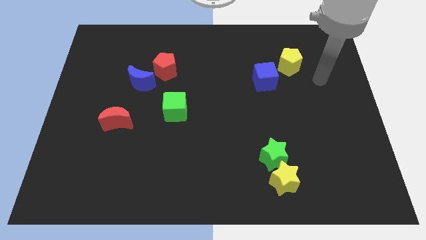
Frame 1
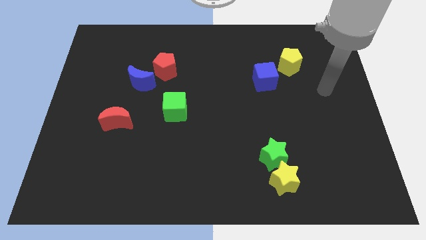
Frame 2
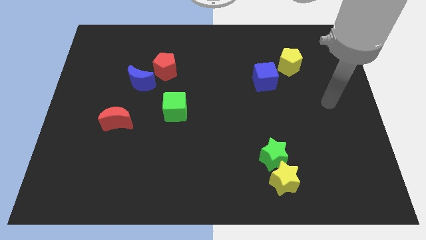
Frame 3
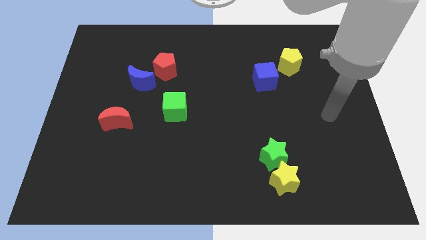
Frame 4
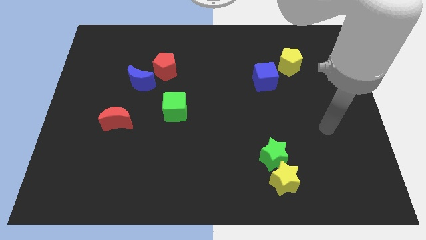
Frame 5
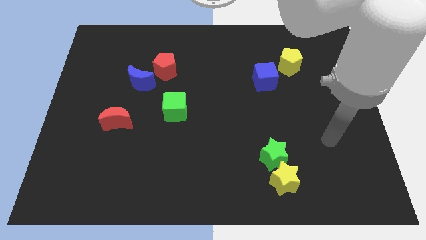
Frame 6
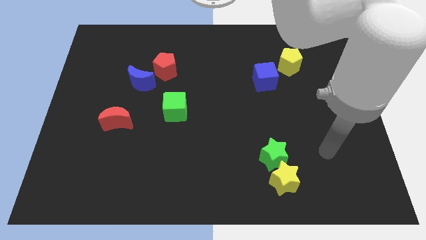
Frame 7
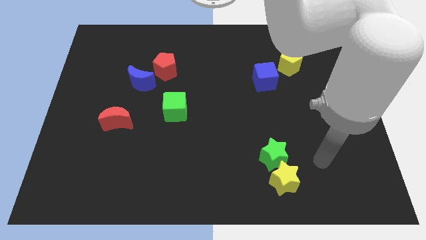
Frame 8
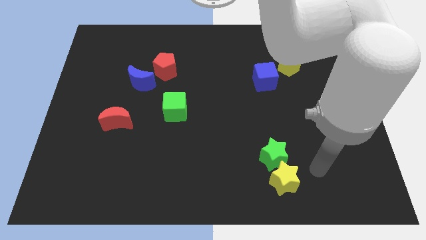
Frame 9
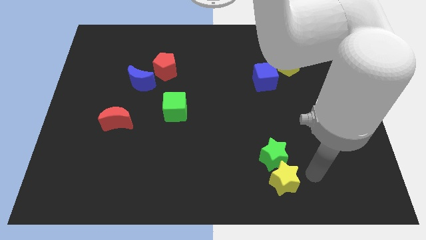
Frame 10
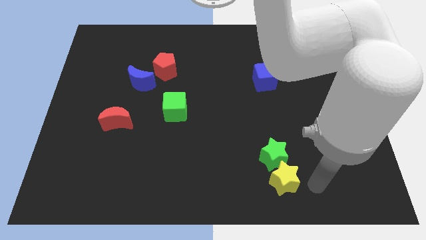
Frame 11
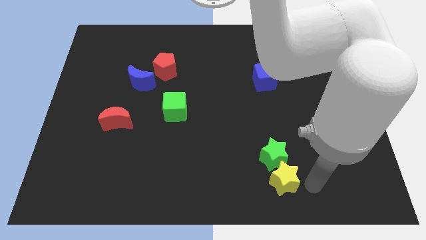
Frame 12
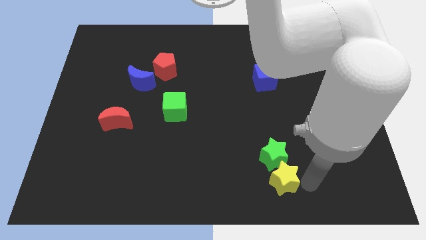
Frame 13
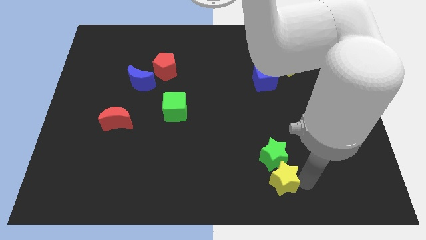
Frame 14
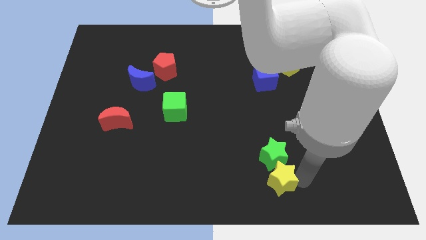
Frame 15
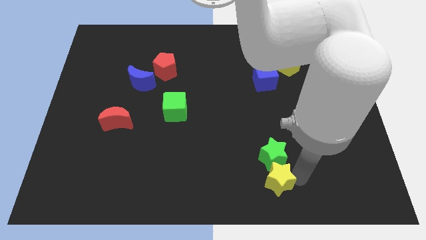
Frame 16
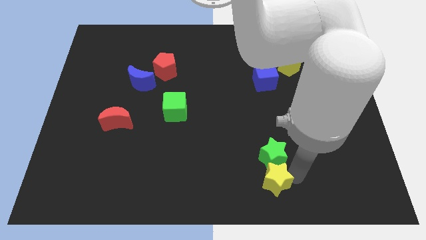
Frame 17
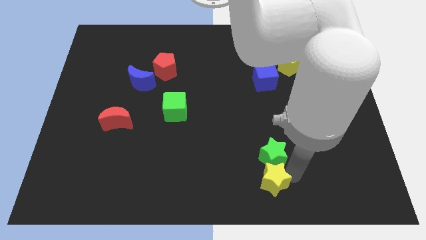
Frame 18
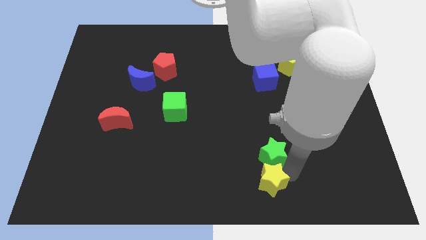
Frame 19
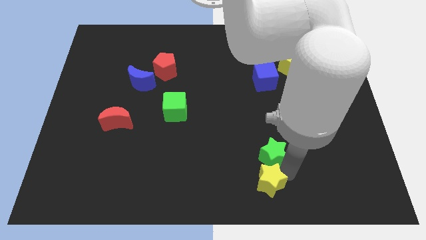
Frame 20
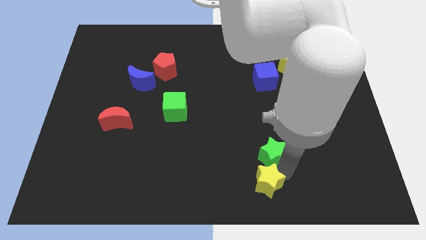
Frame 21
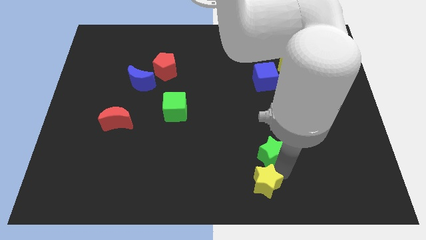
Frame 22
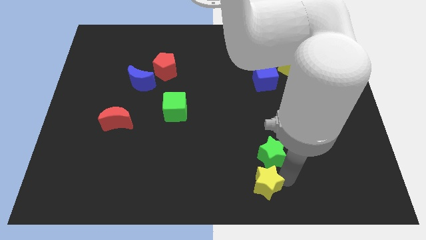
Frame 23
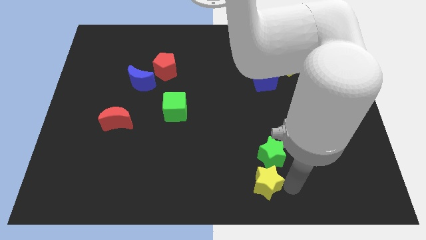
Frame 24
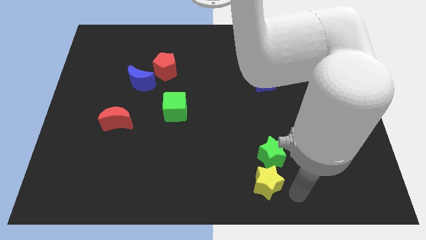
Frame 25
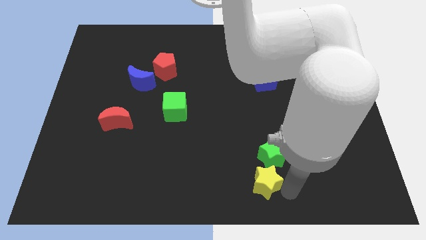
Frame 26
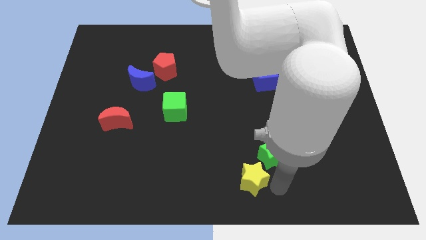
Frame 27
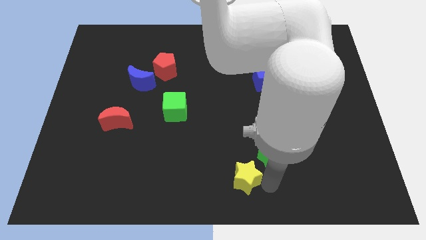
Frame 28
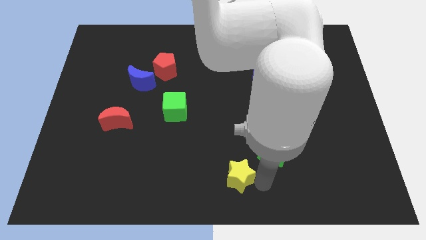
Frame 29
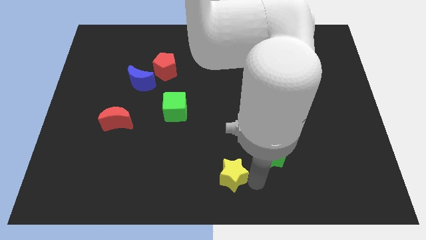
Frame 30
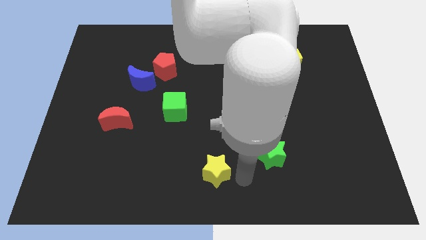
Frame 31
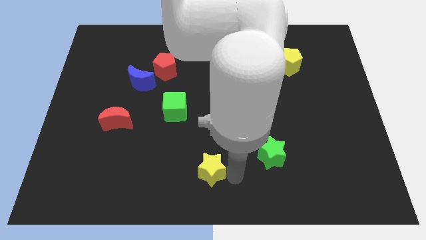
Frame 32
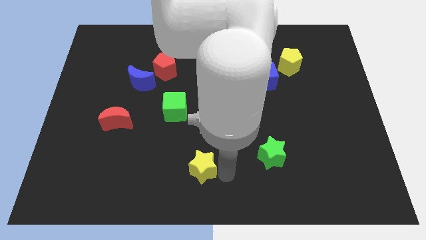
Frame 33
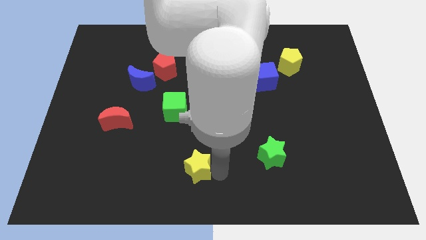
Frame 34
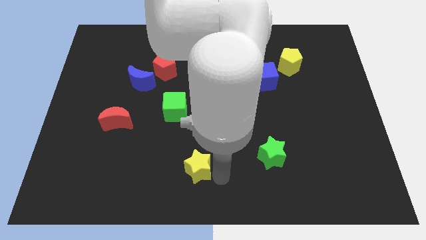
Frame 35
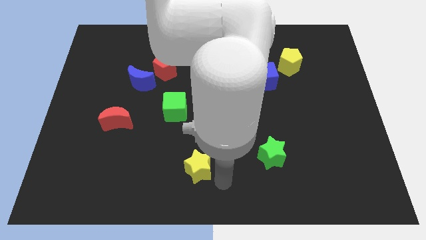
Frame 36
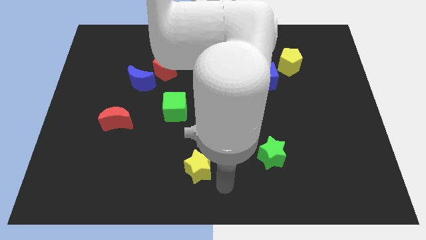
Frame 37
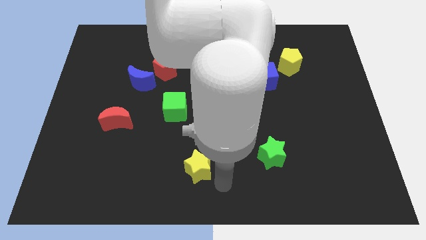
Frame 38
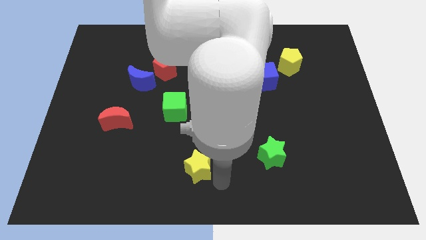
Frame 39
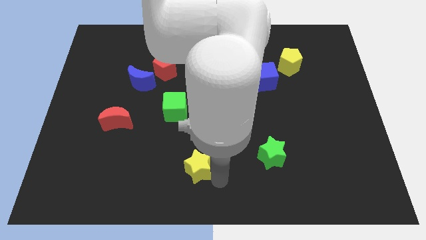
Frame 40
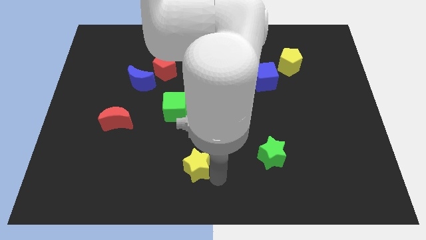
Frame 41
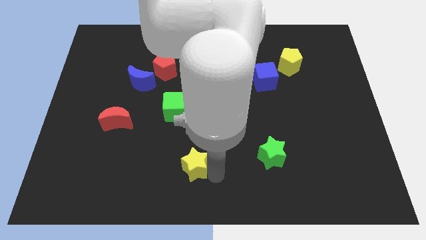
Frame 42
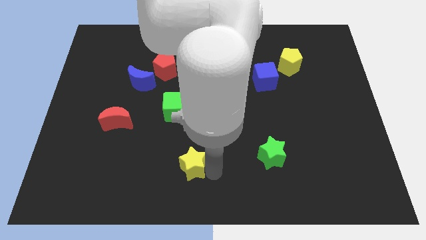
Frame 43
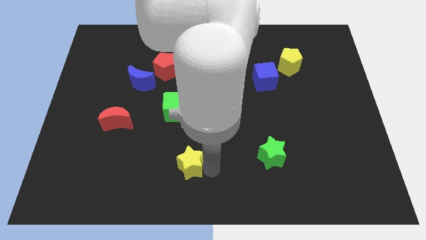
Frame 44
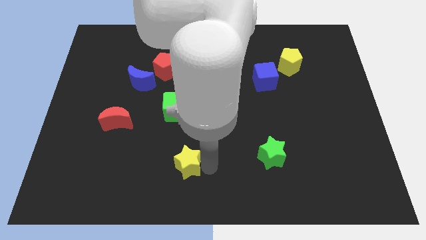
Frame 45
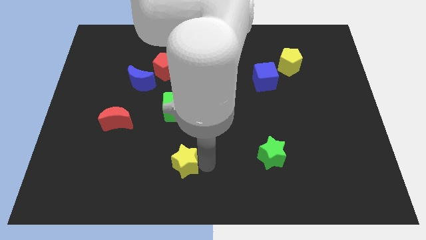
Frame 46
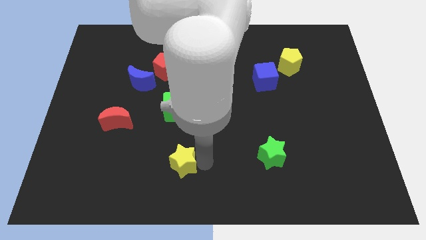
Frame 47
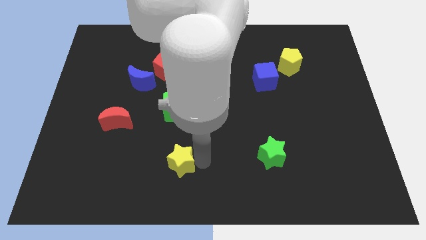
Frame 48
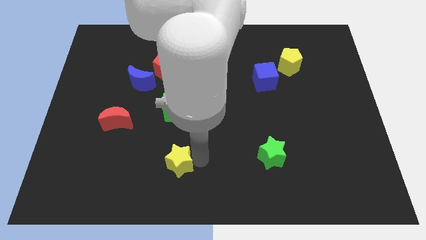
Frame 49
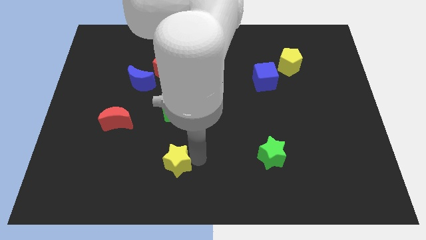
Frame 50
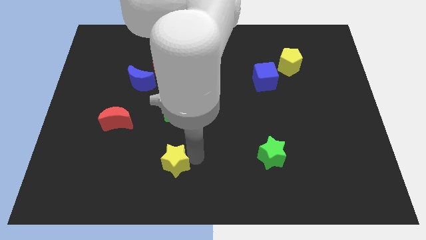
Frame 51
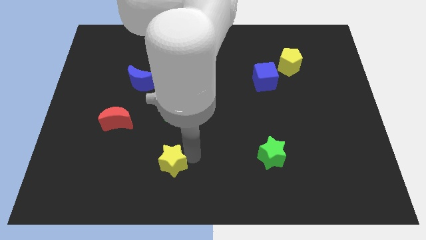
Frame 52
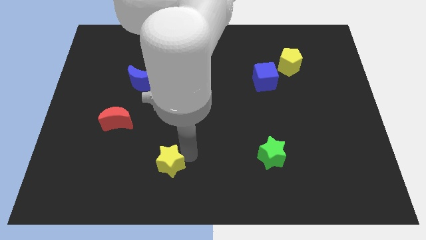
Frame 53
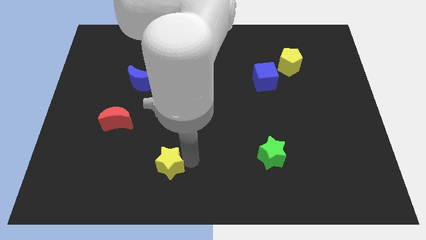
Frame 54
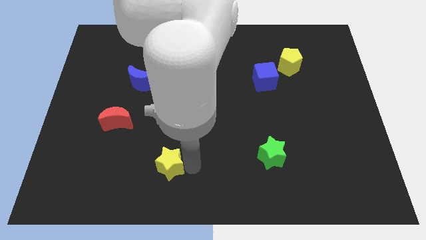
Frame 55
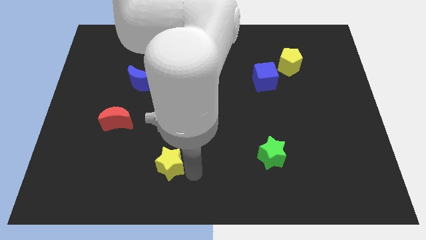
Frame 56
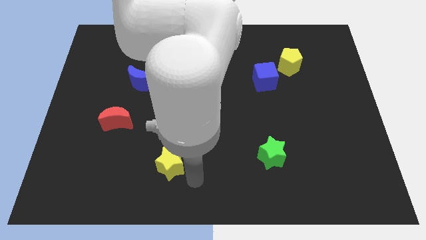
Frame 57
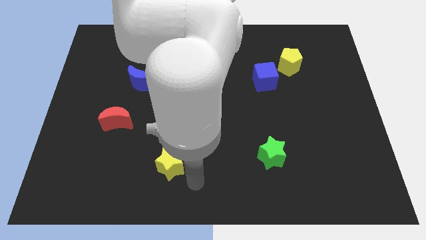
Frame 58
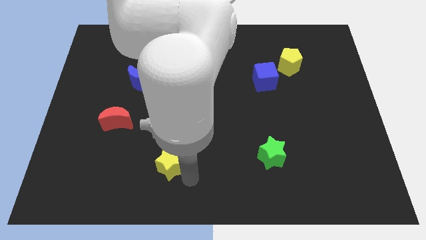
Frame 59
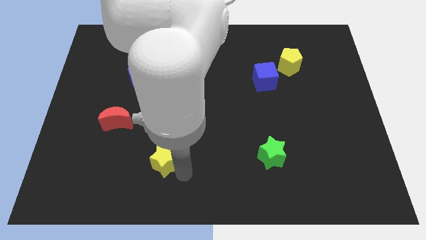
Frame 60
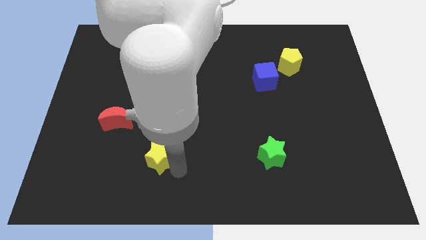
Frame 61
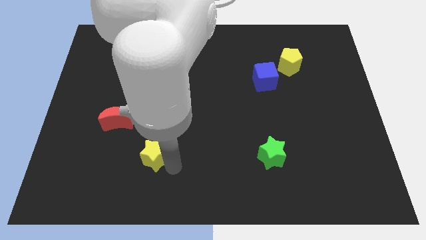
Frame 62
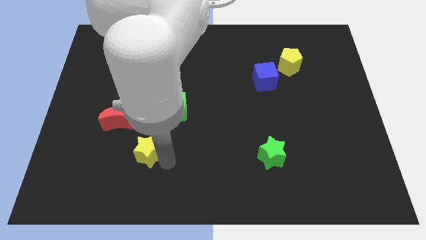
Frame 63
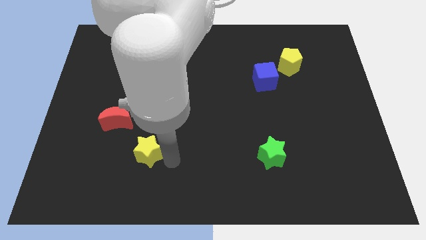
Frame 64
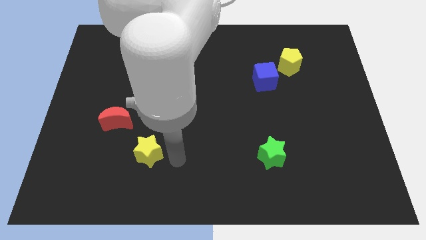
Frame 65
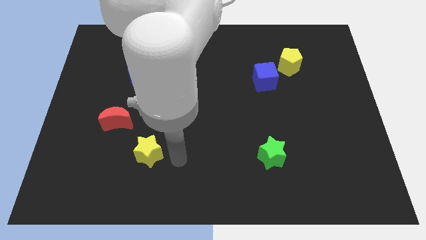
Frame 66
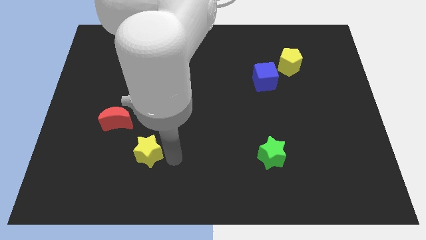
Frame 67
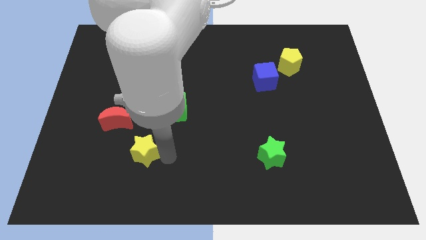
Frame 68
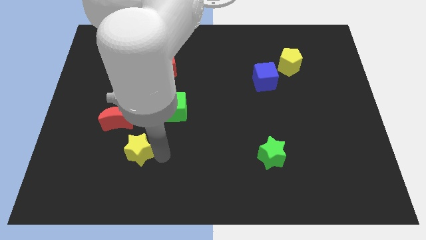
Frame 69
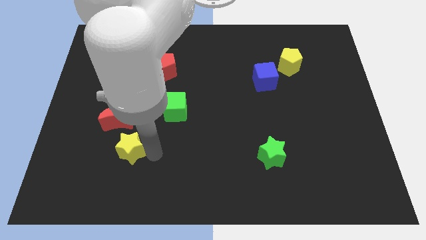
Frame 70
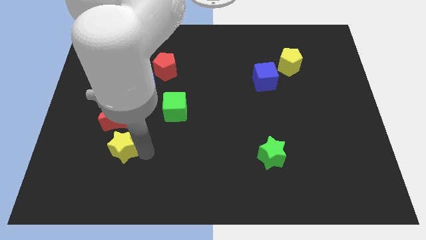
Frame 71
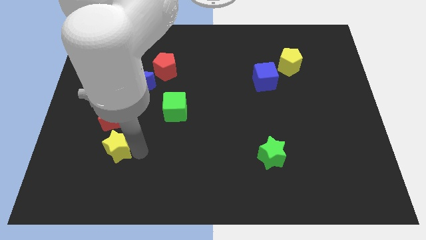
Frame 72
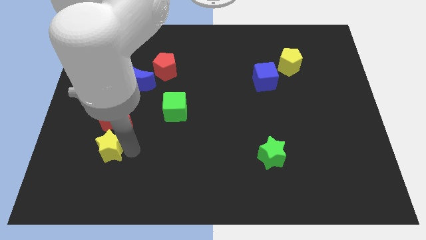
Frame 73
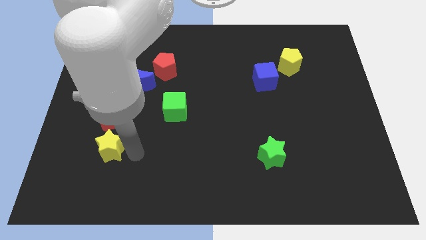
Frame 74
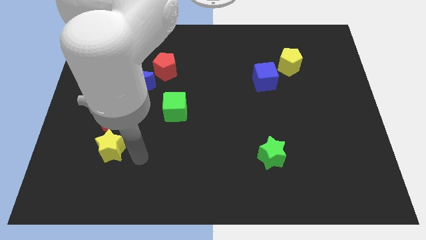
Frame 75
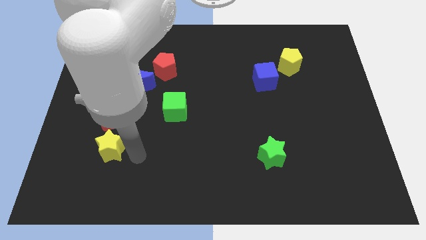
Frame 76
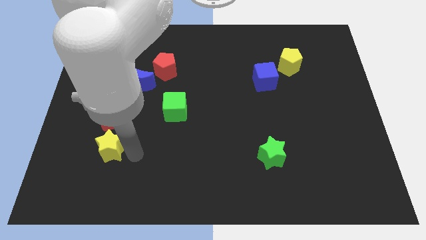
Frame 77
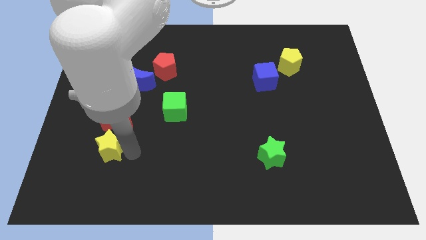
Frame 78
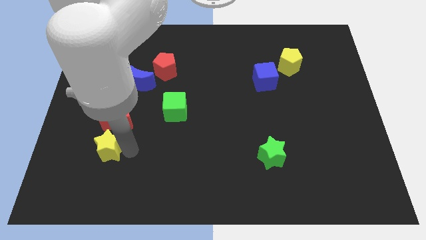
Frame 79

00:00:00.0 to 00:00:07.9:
move the yellow star to the bottom left of the red moon
